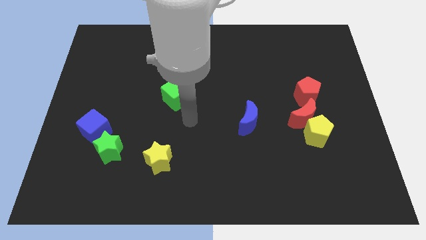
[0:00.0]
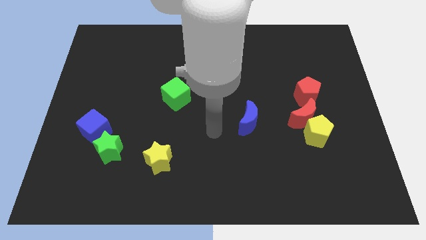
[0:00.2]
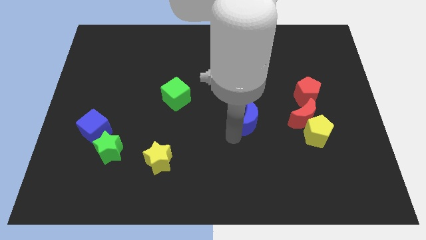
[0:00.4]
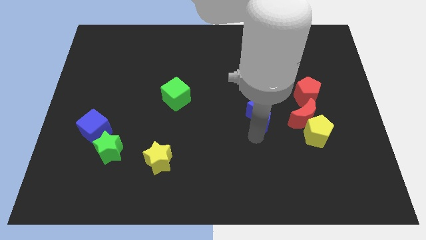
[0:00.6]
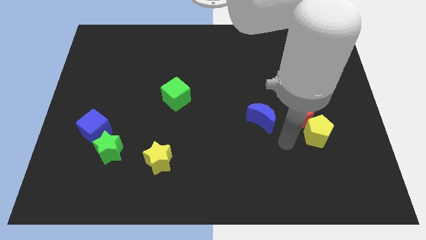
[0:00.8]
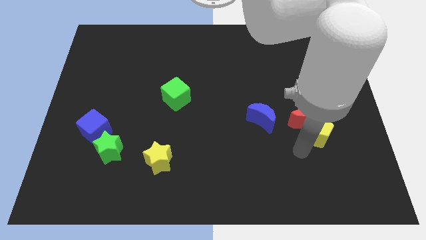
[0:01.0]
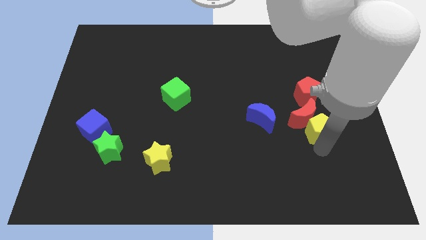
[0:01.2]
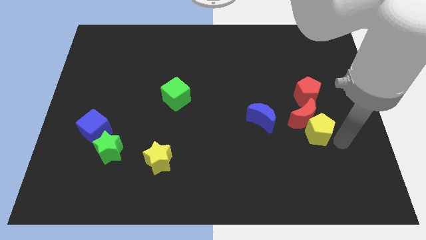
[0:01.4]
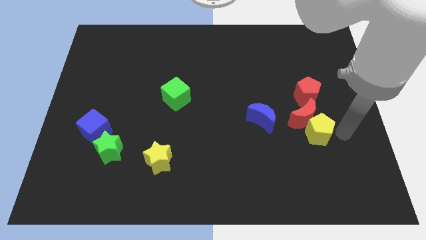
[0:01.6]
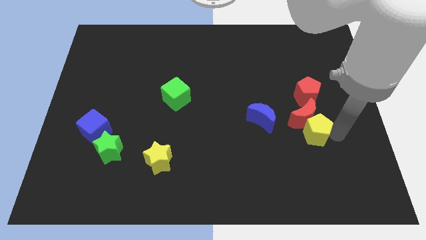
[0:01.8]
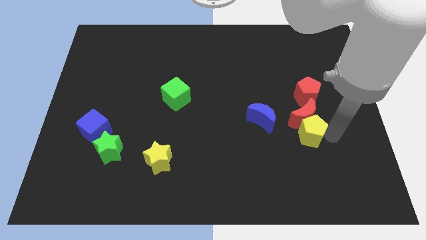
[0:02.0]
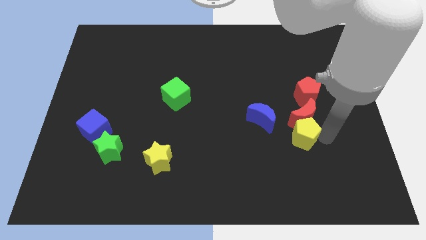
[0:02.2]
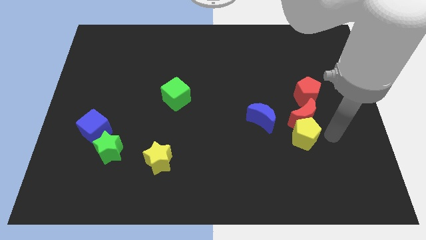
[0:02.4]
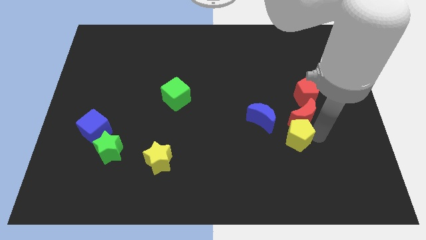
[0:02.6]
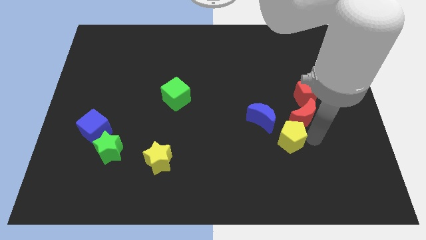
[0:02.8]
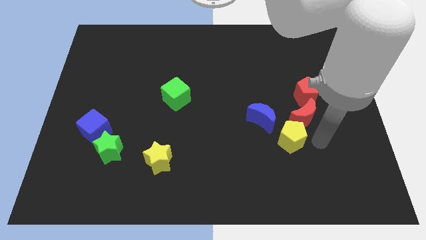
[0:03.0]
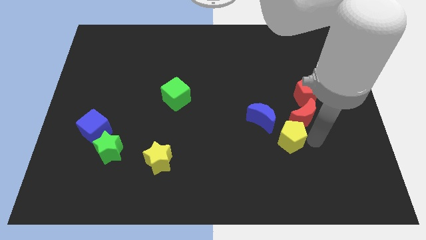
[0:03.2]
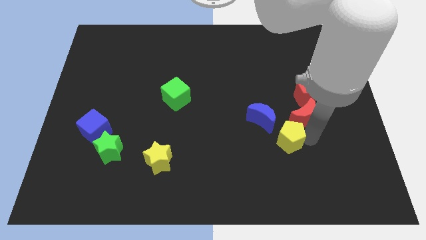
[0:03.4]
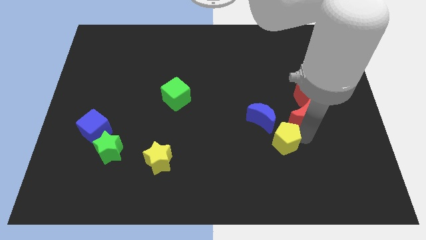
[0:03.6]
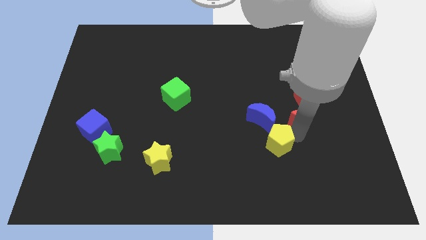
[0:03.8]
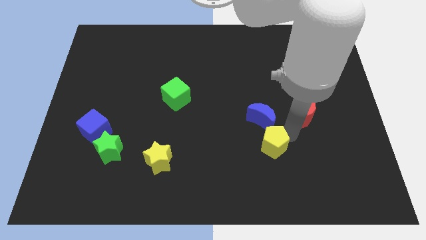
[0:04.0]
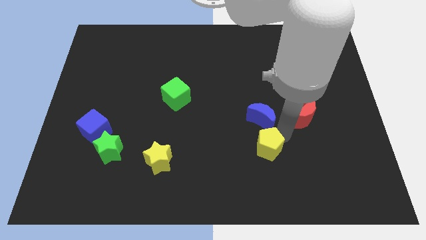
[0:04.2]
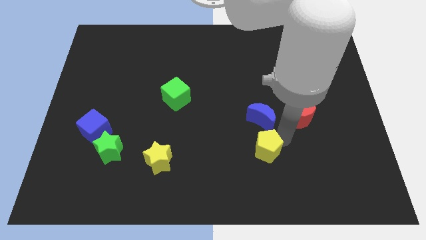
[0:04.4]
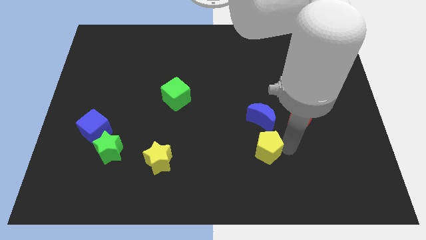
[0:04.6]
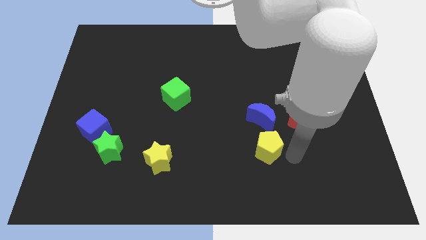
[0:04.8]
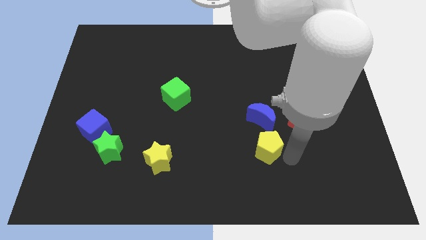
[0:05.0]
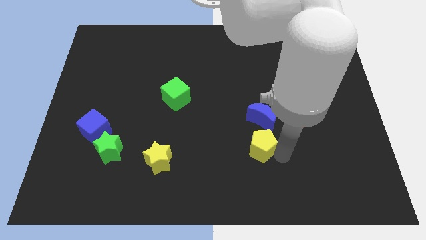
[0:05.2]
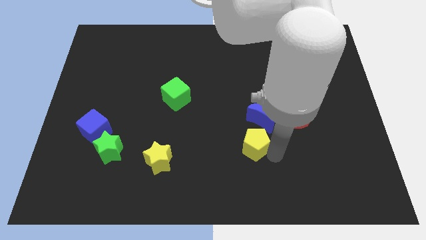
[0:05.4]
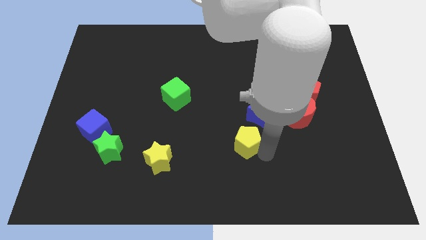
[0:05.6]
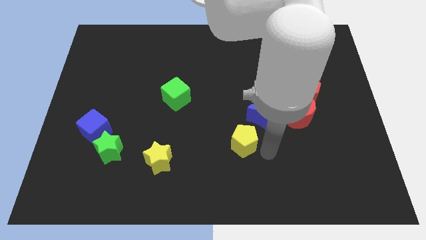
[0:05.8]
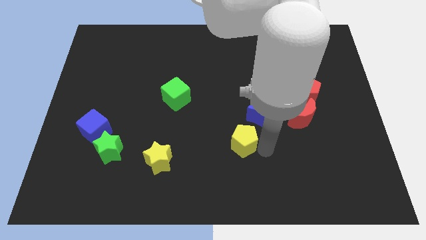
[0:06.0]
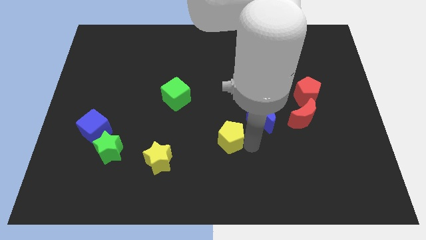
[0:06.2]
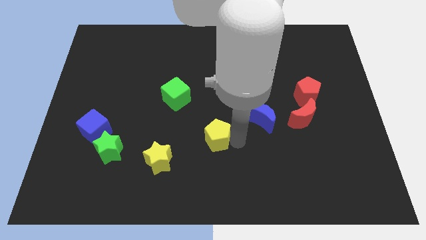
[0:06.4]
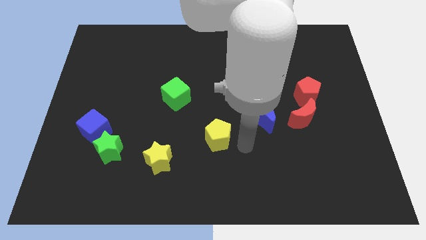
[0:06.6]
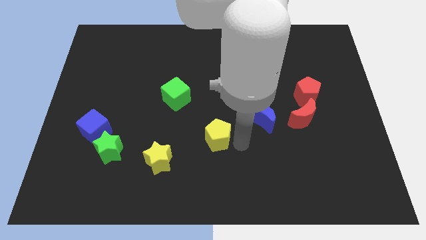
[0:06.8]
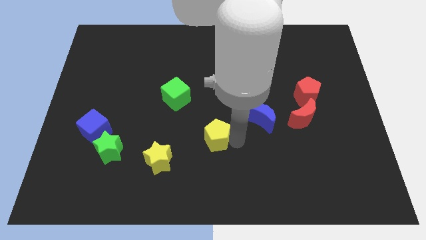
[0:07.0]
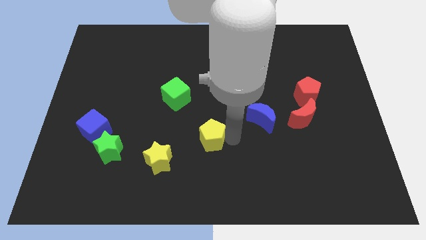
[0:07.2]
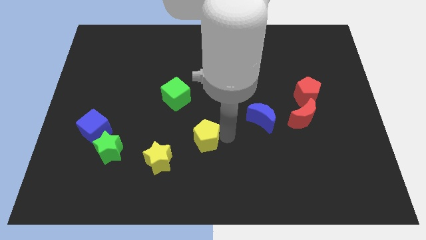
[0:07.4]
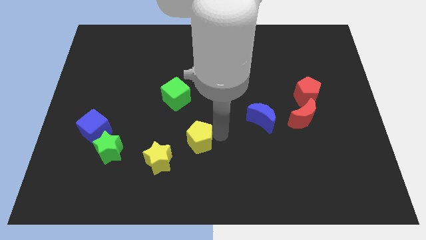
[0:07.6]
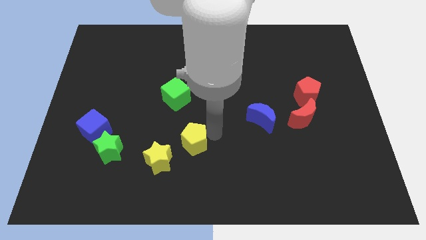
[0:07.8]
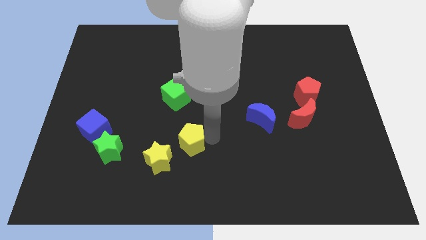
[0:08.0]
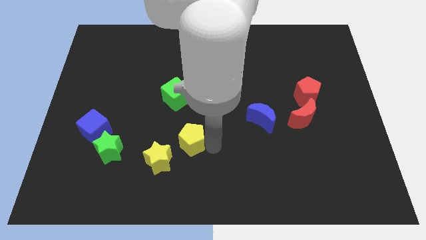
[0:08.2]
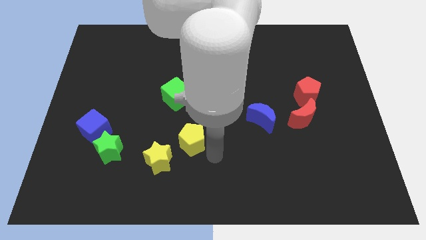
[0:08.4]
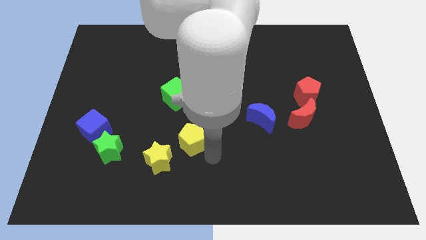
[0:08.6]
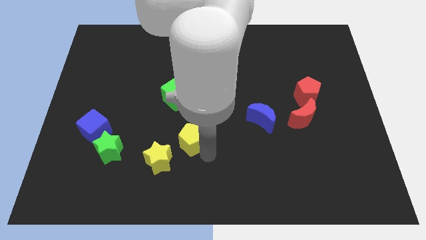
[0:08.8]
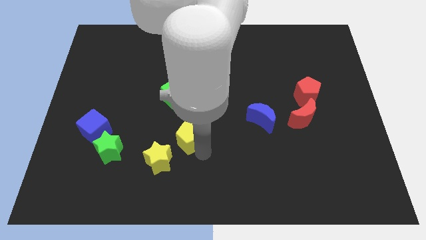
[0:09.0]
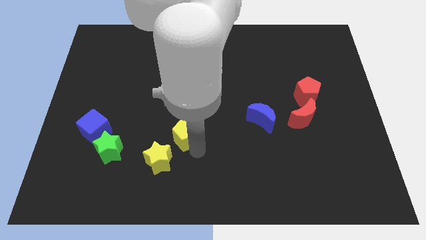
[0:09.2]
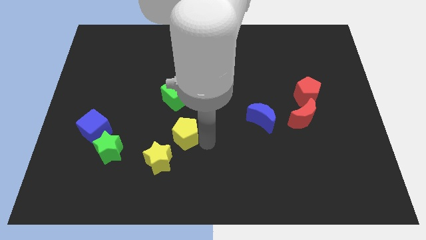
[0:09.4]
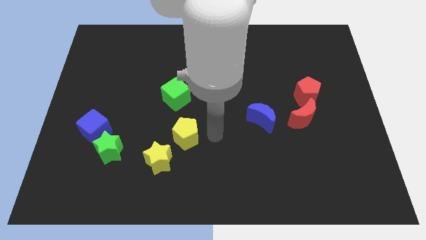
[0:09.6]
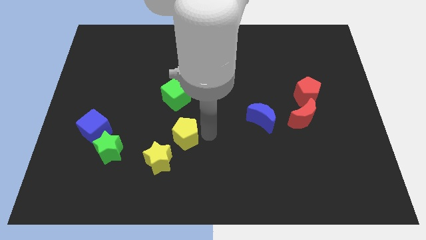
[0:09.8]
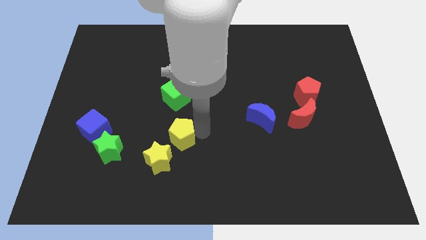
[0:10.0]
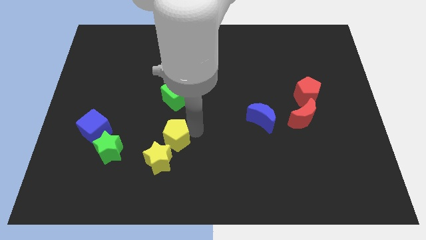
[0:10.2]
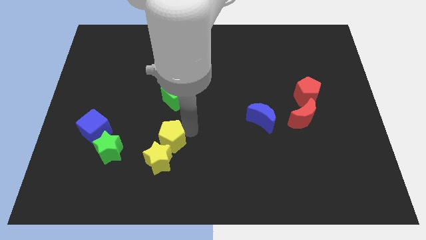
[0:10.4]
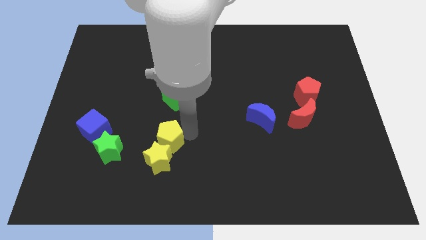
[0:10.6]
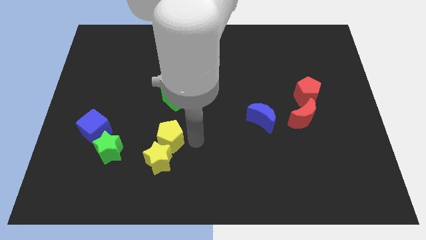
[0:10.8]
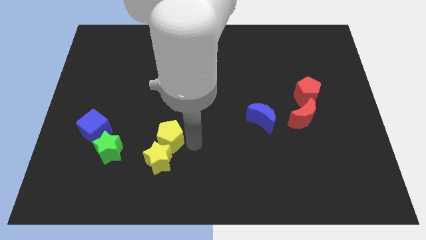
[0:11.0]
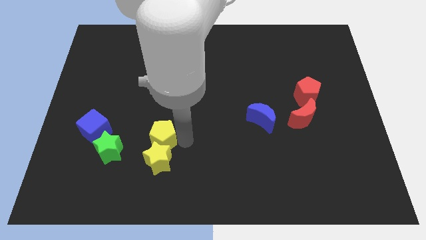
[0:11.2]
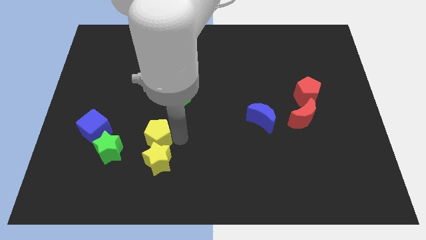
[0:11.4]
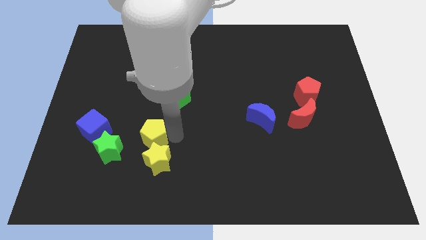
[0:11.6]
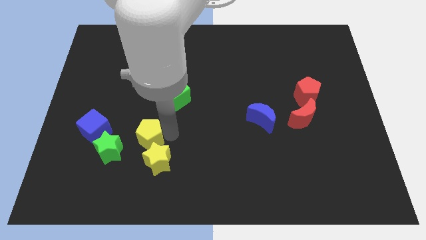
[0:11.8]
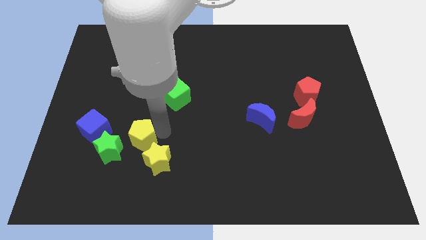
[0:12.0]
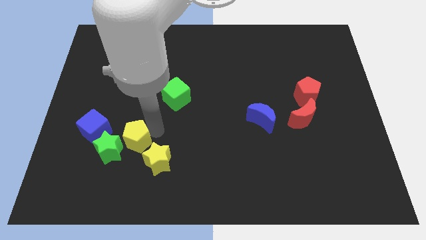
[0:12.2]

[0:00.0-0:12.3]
put the yellow pentagon next to the green star

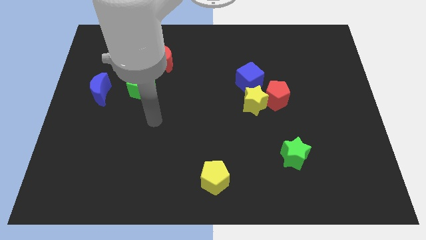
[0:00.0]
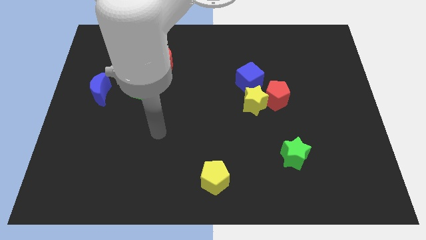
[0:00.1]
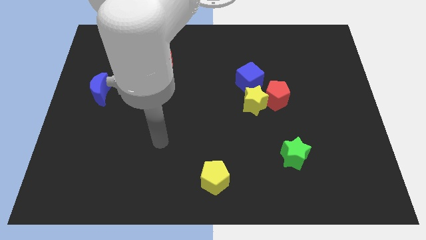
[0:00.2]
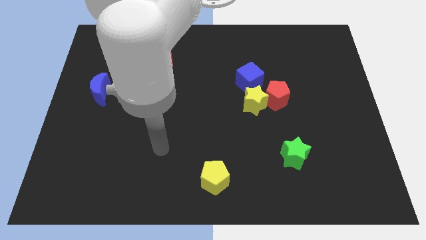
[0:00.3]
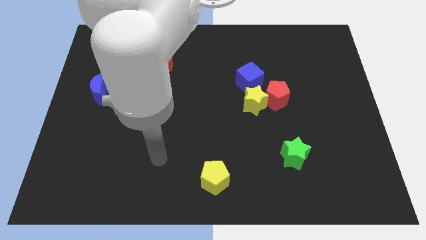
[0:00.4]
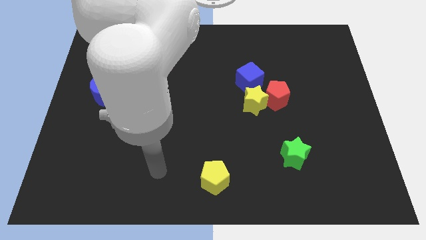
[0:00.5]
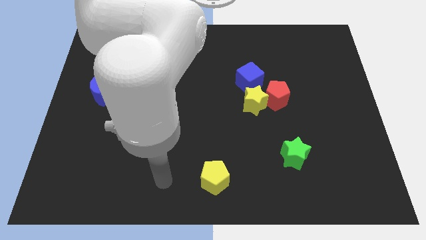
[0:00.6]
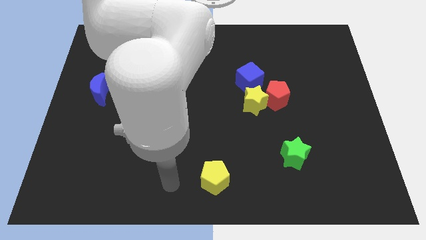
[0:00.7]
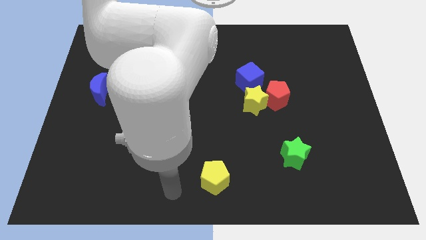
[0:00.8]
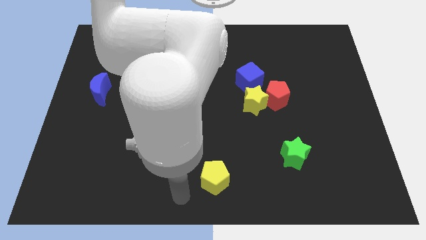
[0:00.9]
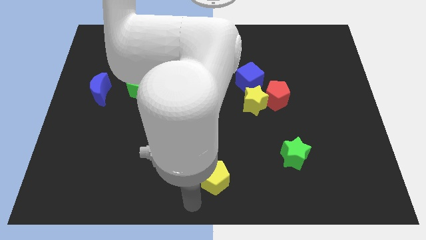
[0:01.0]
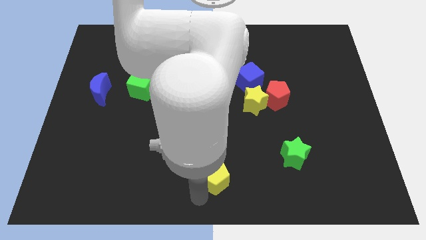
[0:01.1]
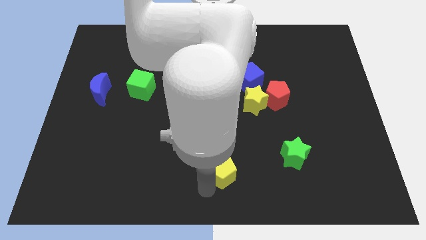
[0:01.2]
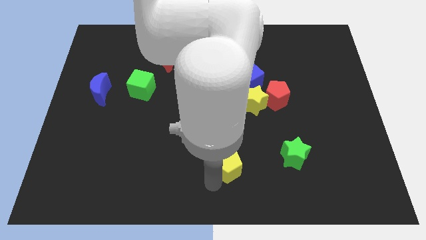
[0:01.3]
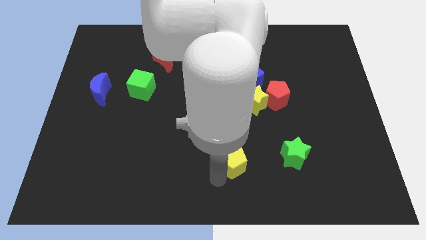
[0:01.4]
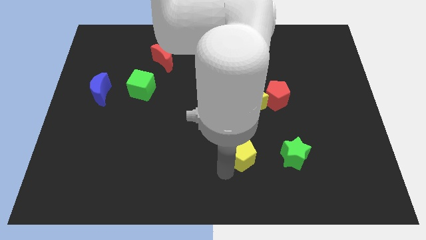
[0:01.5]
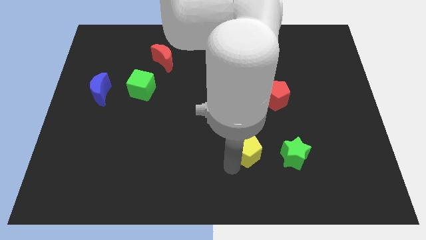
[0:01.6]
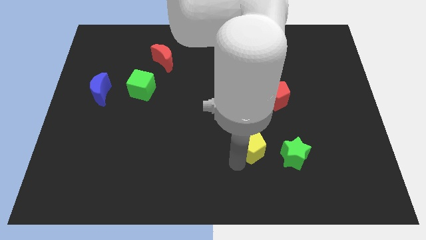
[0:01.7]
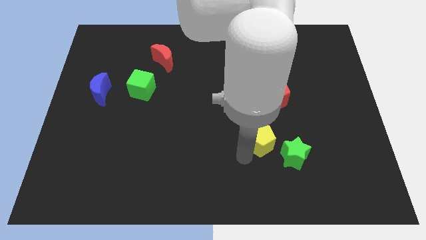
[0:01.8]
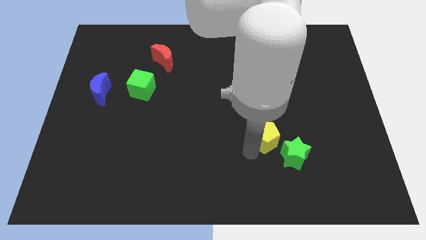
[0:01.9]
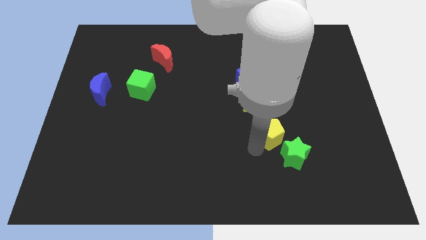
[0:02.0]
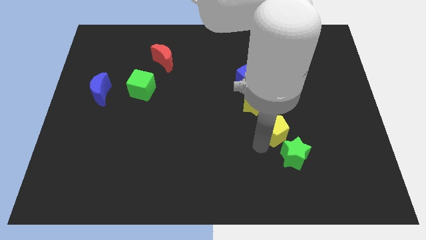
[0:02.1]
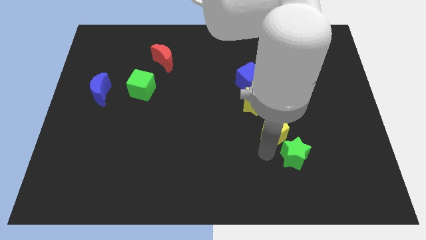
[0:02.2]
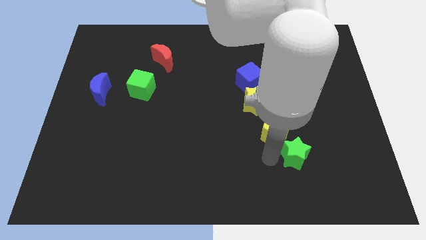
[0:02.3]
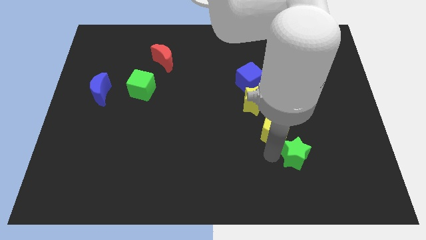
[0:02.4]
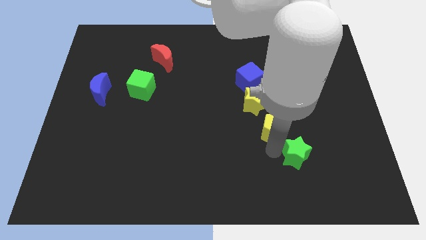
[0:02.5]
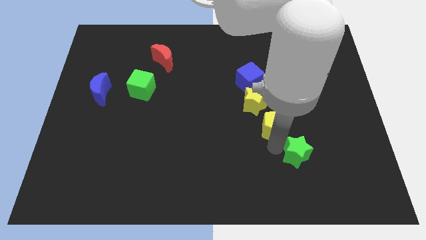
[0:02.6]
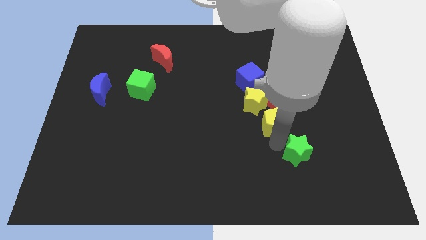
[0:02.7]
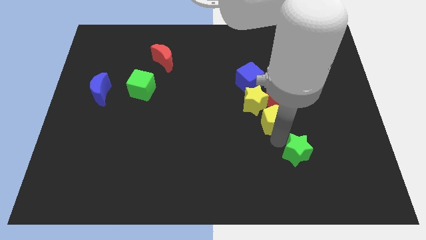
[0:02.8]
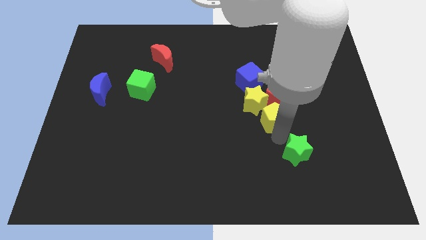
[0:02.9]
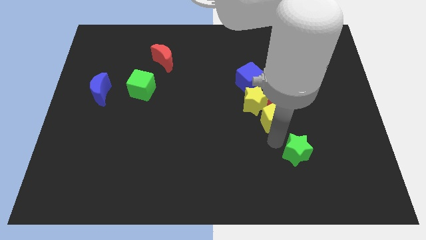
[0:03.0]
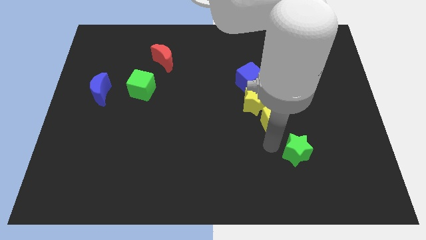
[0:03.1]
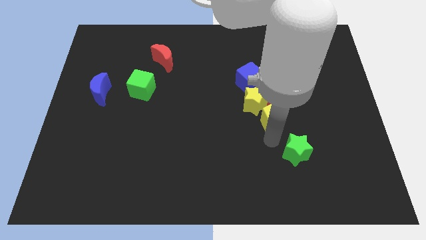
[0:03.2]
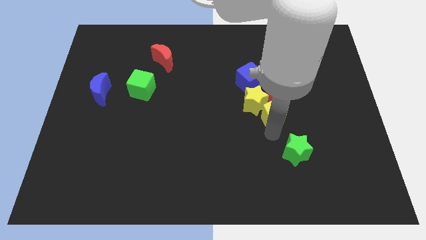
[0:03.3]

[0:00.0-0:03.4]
move the yellow pentagon next to the red pentagon
